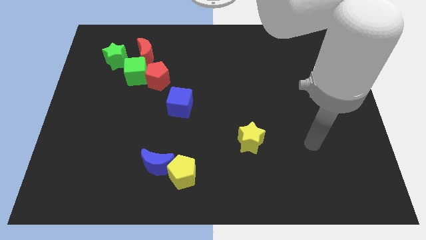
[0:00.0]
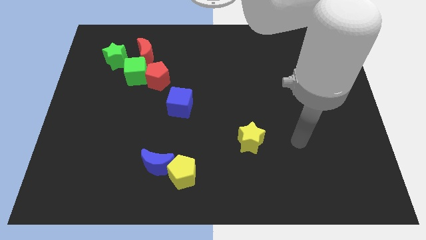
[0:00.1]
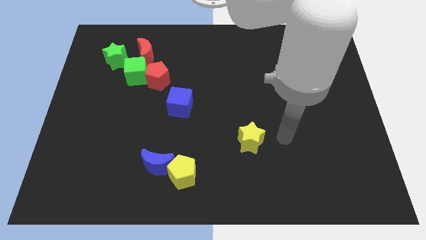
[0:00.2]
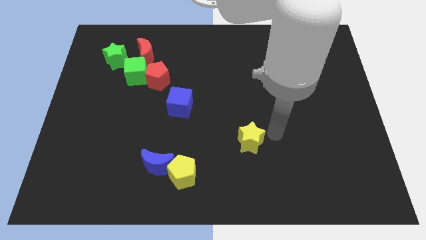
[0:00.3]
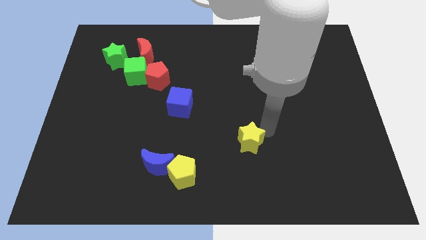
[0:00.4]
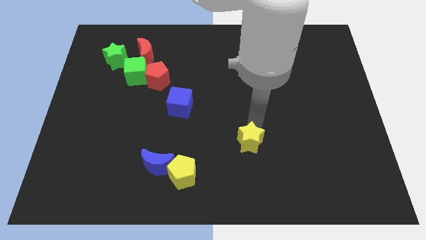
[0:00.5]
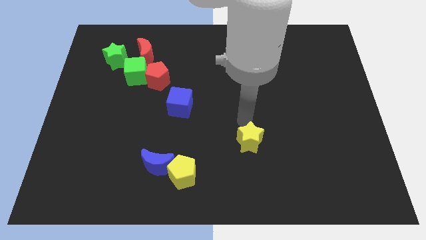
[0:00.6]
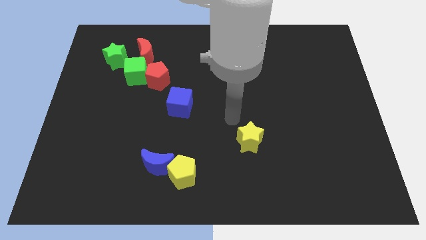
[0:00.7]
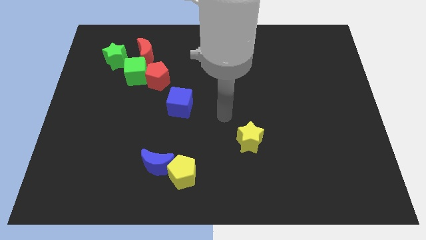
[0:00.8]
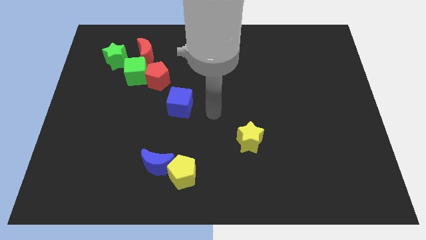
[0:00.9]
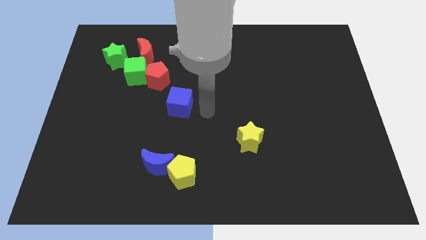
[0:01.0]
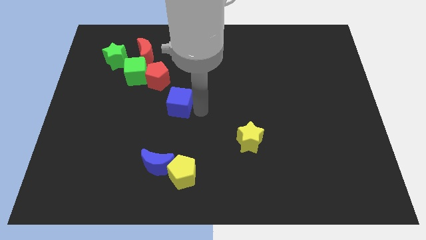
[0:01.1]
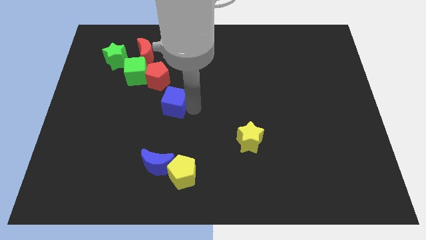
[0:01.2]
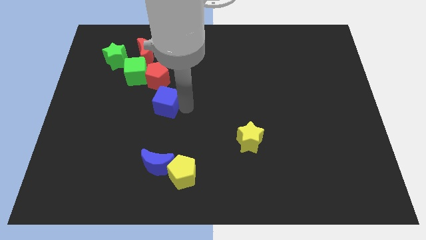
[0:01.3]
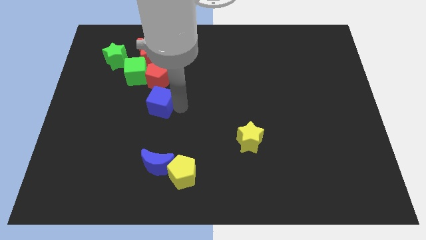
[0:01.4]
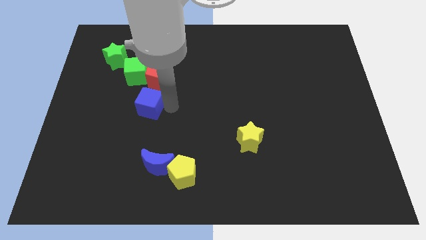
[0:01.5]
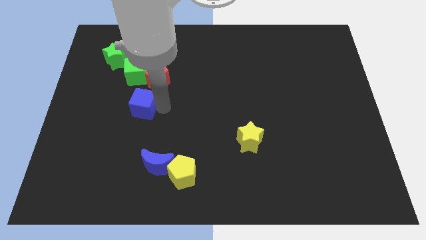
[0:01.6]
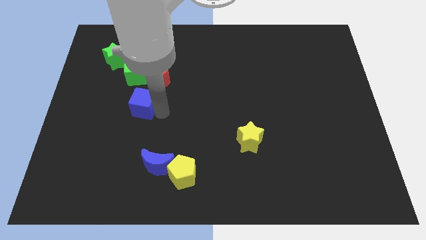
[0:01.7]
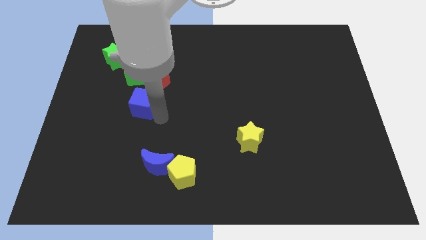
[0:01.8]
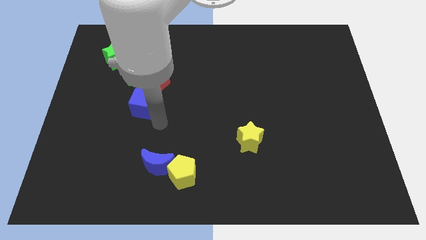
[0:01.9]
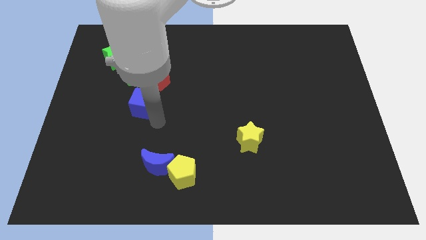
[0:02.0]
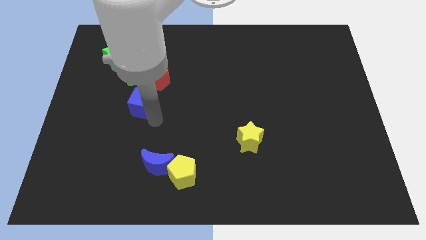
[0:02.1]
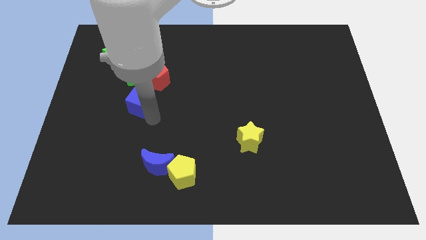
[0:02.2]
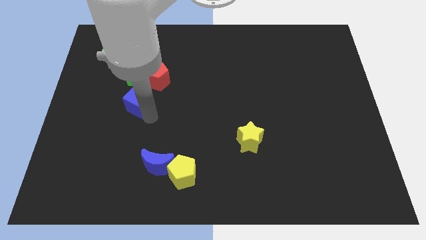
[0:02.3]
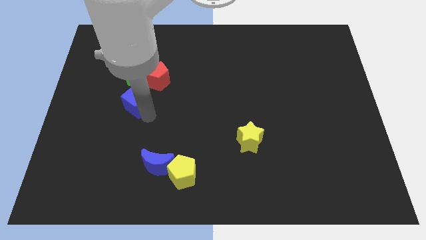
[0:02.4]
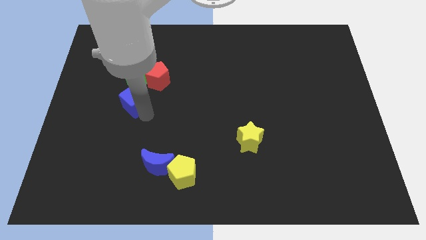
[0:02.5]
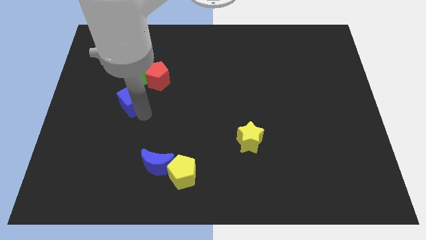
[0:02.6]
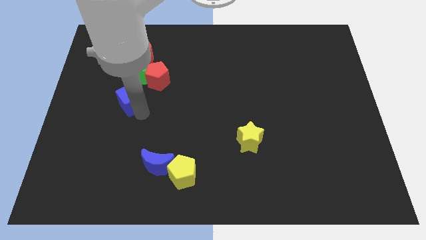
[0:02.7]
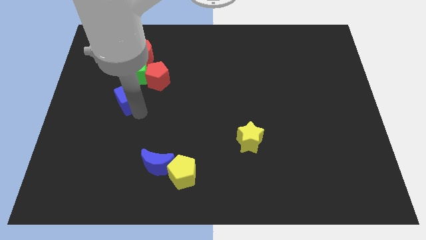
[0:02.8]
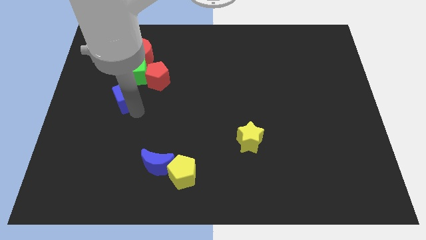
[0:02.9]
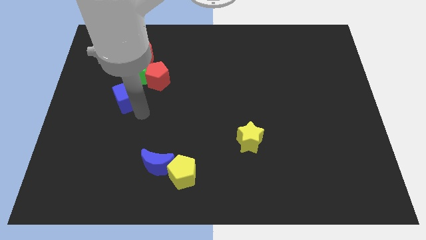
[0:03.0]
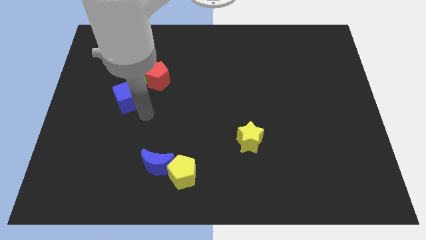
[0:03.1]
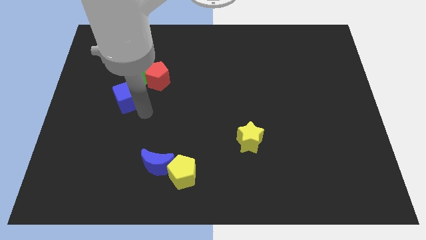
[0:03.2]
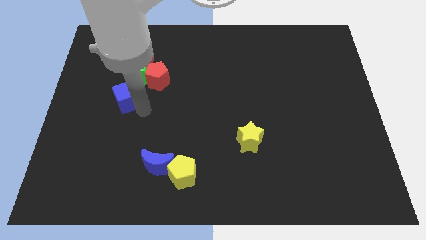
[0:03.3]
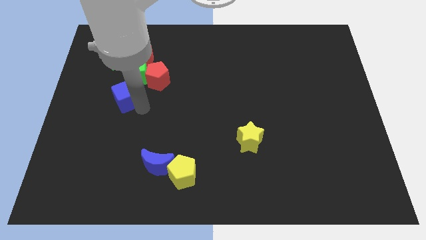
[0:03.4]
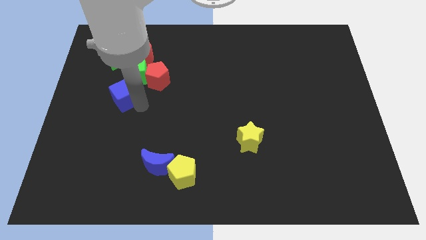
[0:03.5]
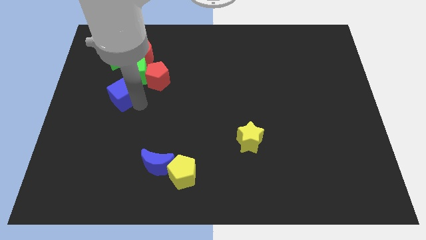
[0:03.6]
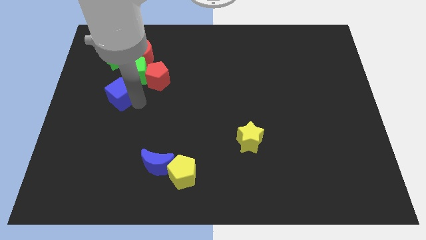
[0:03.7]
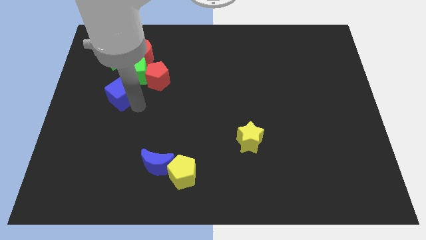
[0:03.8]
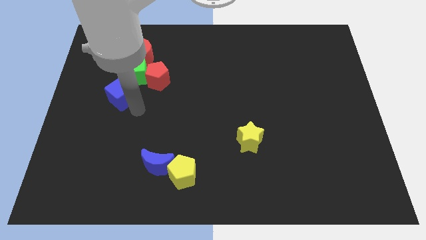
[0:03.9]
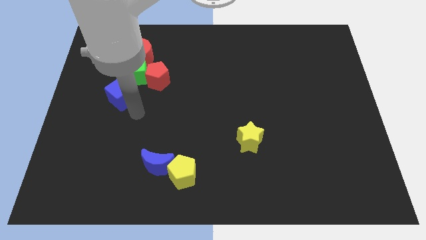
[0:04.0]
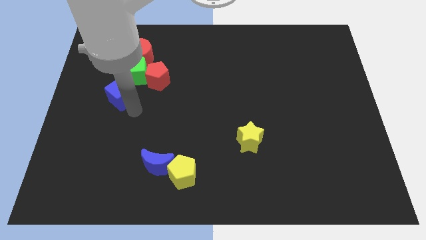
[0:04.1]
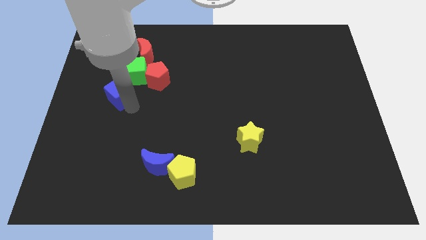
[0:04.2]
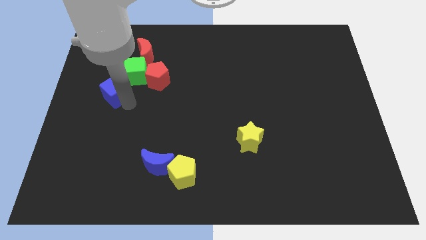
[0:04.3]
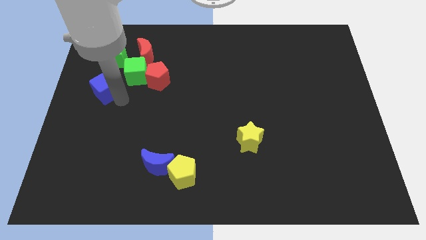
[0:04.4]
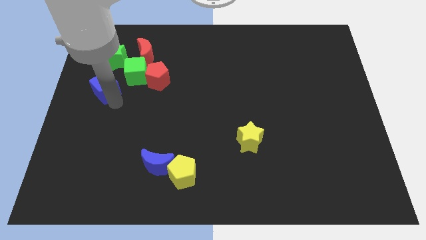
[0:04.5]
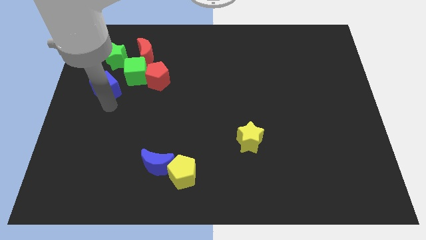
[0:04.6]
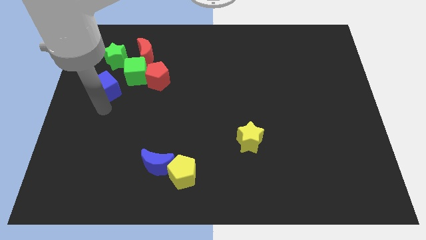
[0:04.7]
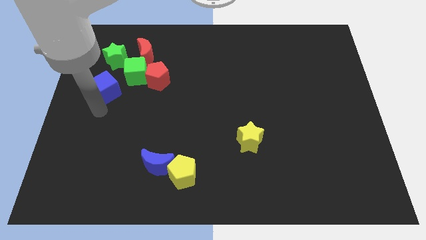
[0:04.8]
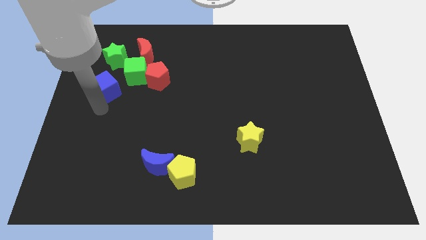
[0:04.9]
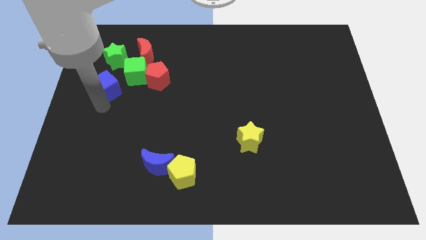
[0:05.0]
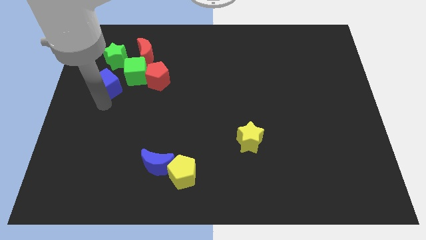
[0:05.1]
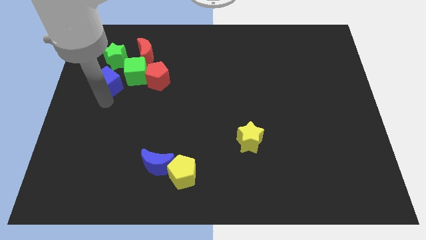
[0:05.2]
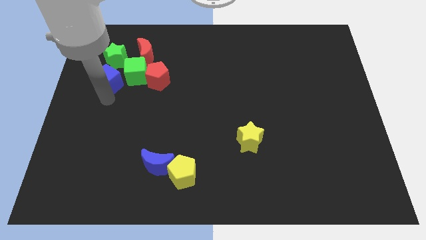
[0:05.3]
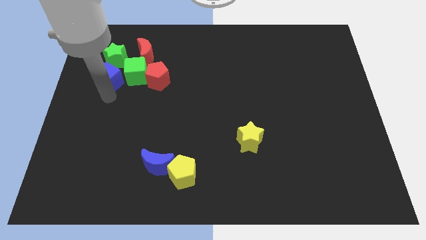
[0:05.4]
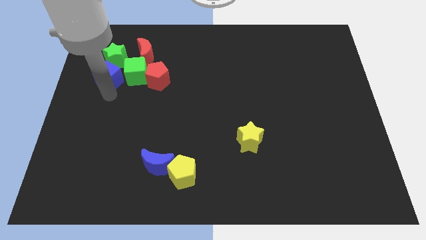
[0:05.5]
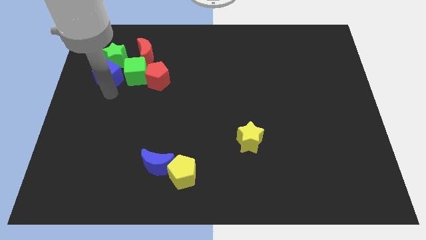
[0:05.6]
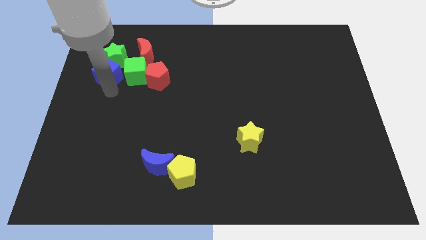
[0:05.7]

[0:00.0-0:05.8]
slide the blue cube towards the green star

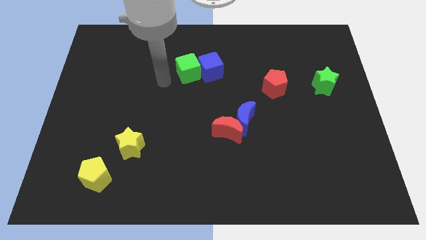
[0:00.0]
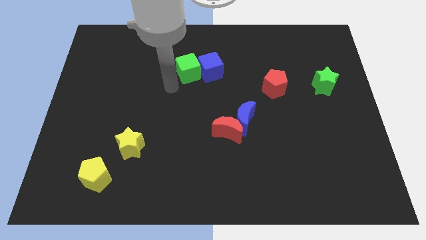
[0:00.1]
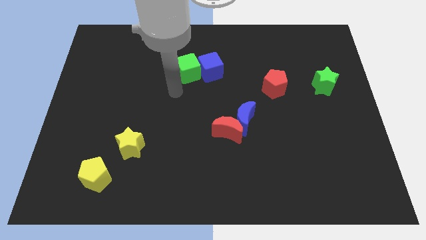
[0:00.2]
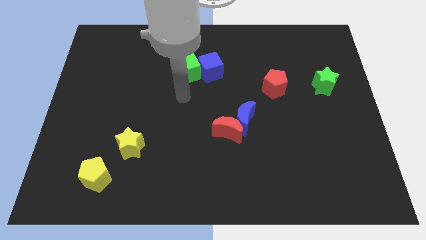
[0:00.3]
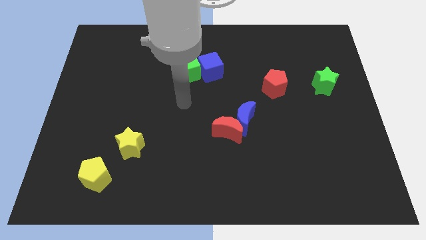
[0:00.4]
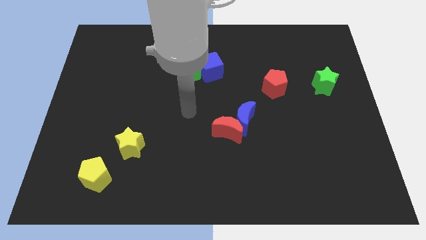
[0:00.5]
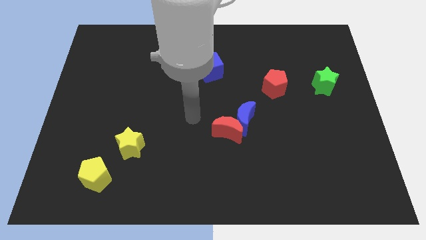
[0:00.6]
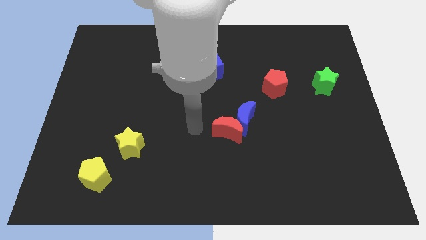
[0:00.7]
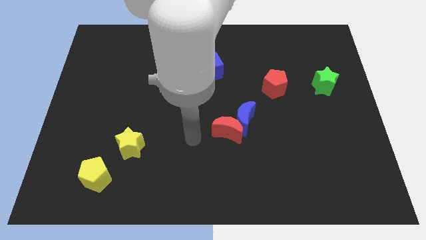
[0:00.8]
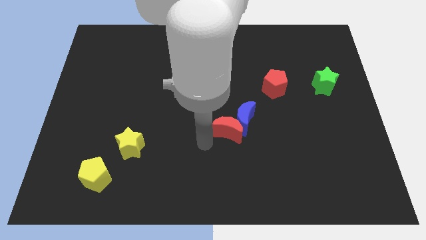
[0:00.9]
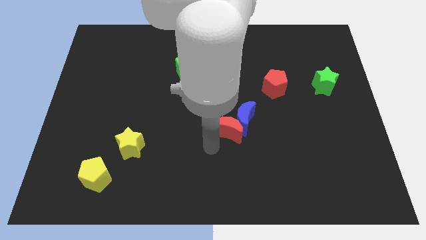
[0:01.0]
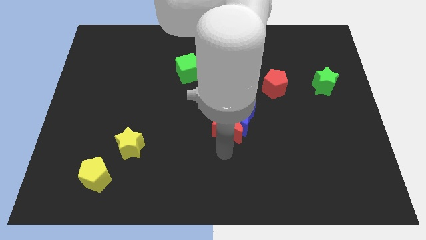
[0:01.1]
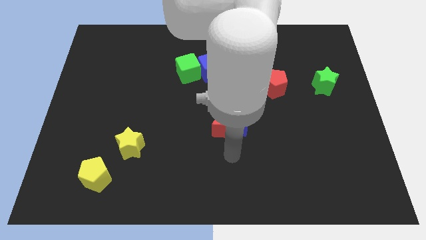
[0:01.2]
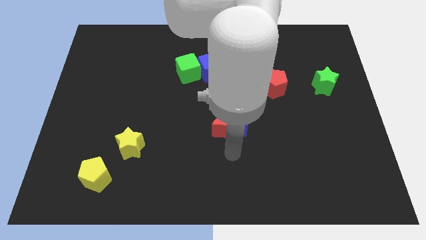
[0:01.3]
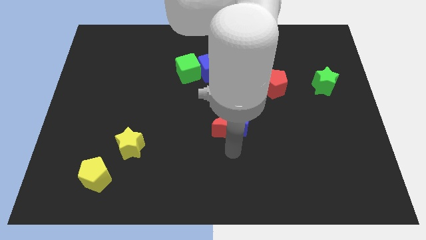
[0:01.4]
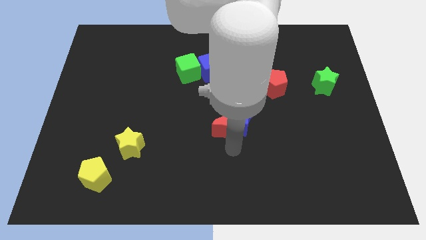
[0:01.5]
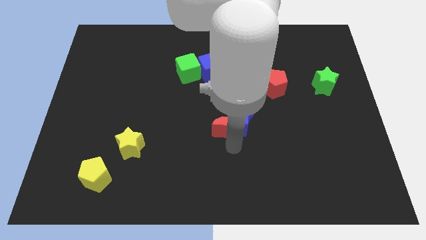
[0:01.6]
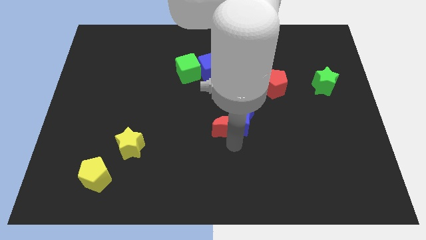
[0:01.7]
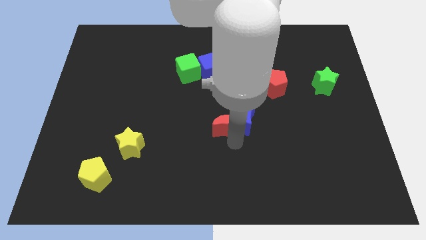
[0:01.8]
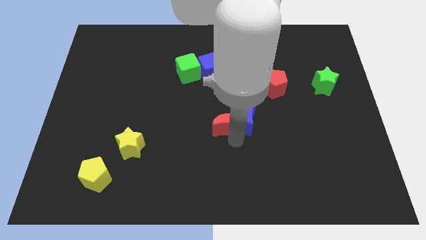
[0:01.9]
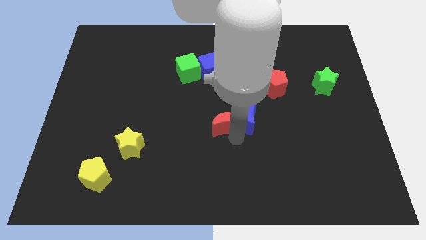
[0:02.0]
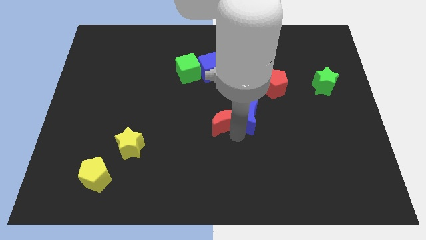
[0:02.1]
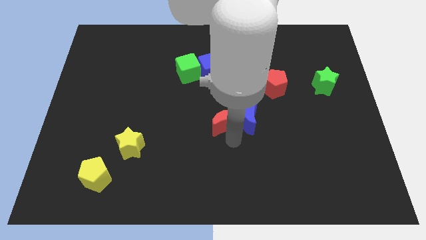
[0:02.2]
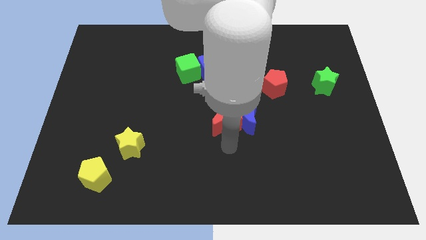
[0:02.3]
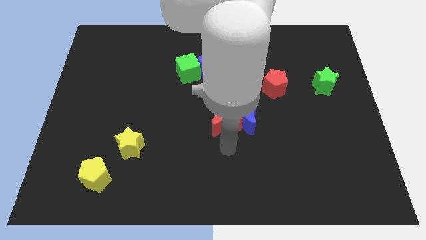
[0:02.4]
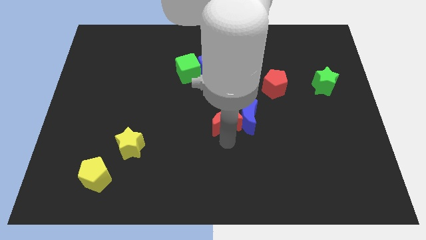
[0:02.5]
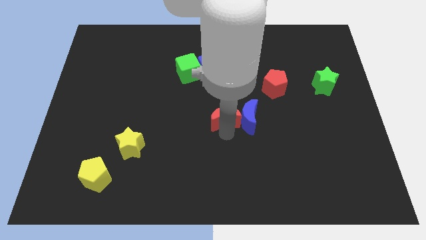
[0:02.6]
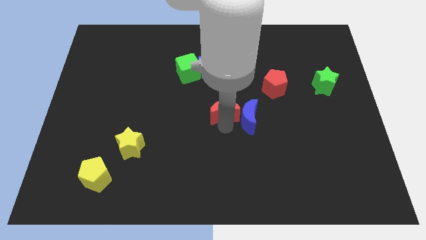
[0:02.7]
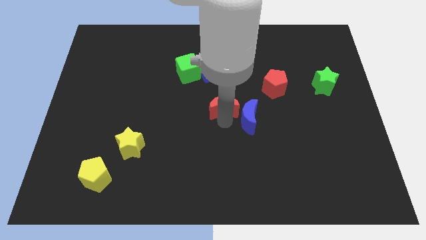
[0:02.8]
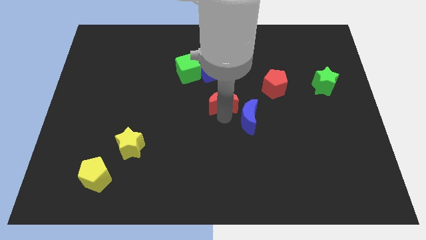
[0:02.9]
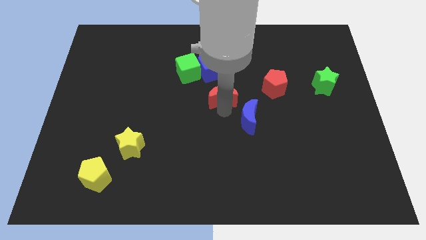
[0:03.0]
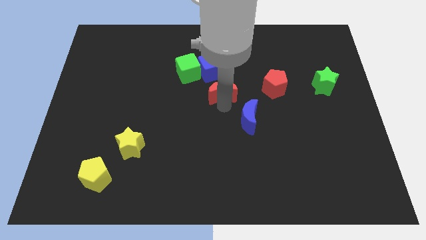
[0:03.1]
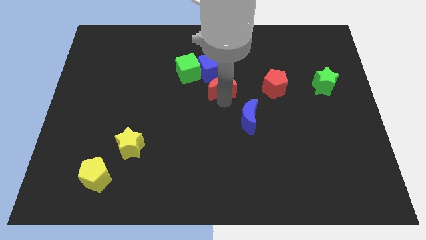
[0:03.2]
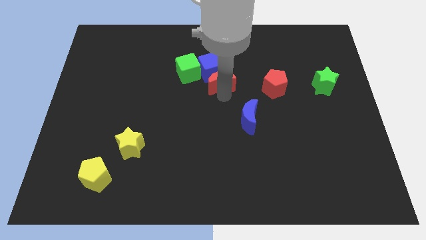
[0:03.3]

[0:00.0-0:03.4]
move the red moon towards the blue cube
